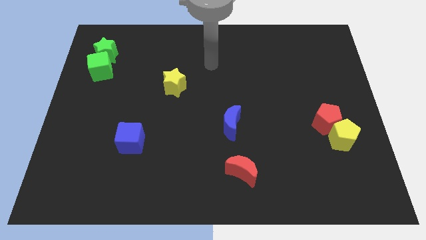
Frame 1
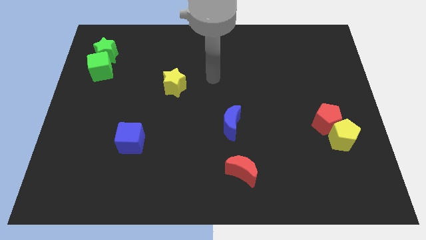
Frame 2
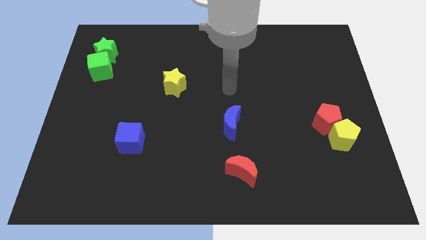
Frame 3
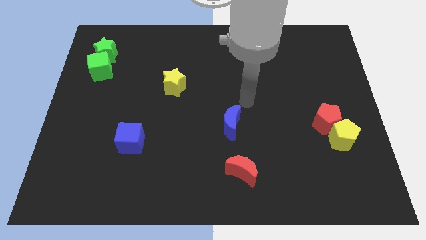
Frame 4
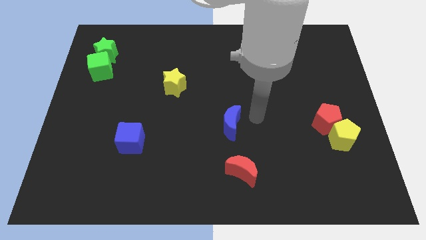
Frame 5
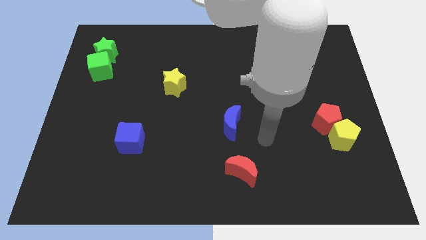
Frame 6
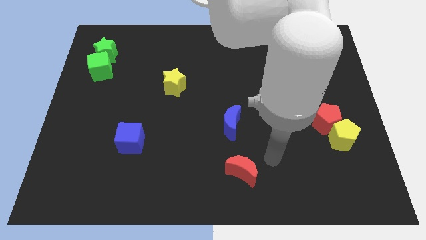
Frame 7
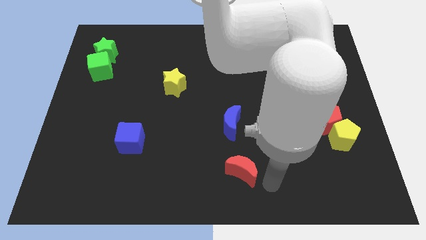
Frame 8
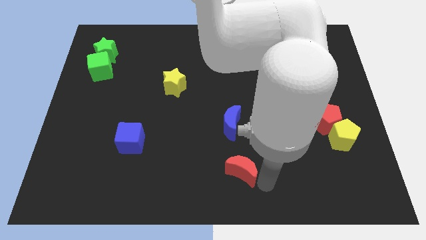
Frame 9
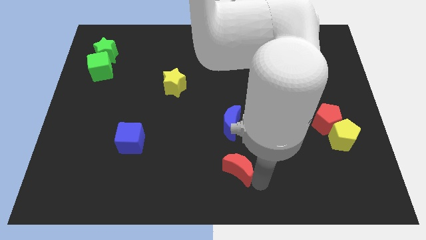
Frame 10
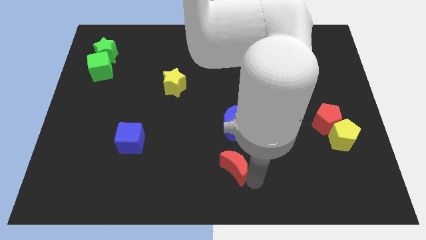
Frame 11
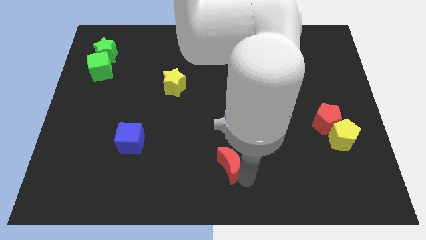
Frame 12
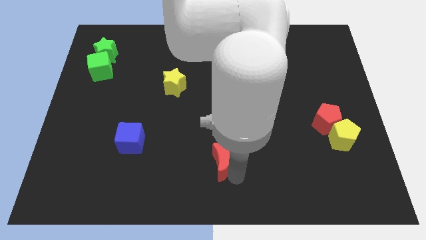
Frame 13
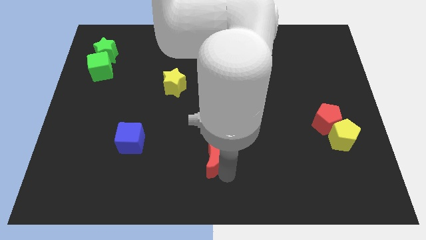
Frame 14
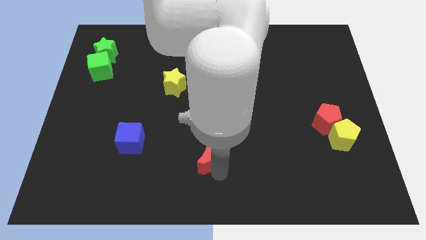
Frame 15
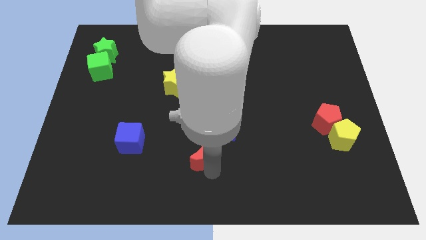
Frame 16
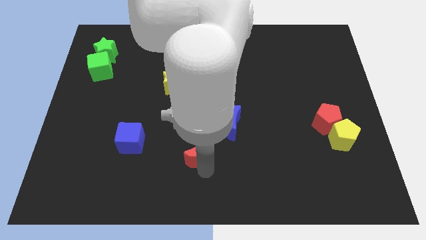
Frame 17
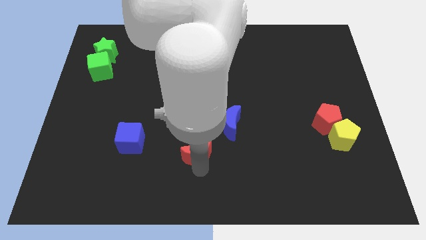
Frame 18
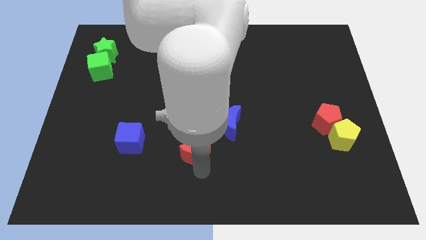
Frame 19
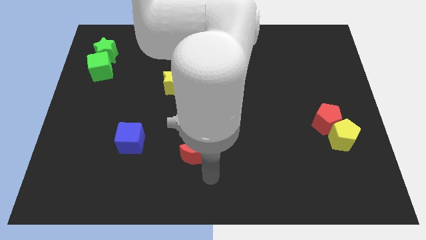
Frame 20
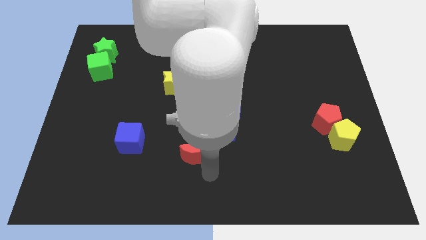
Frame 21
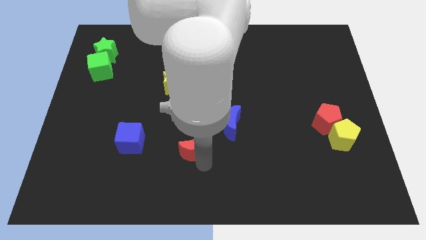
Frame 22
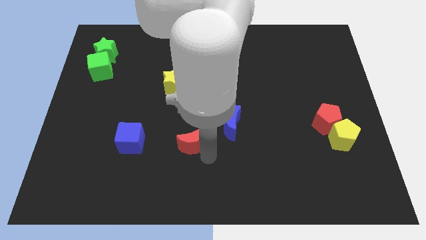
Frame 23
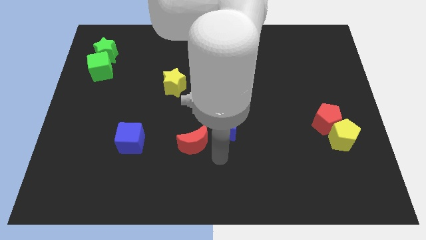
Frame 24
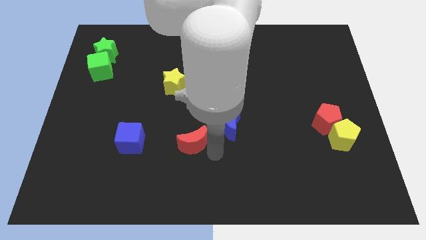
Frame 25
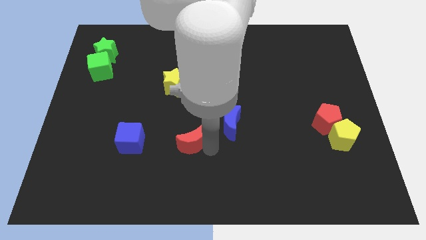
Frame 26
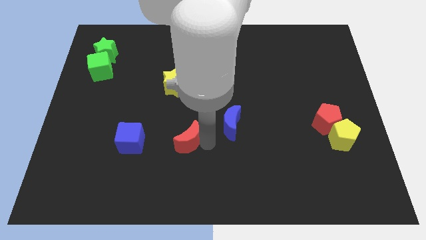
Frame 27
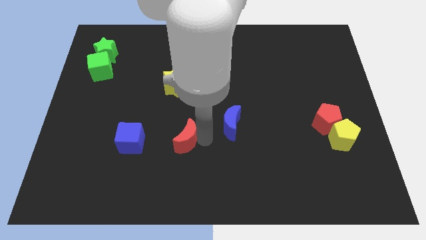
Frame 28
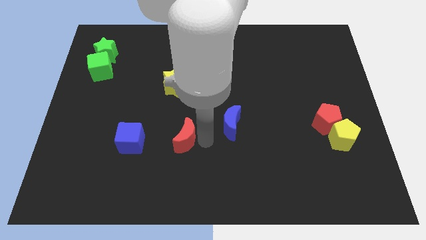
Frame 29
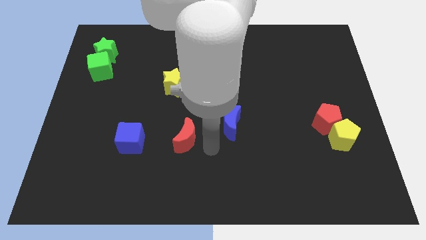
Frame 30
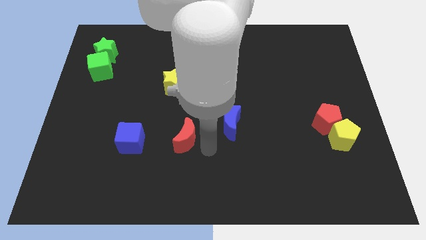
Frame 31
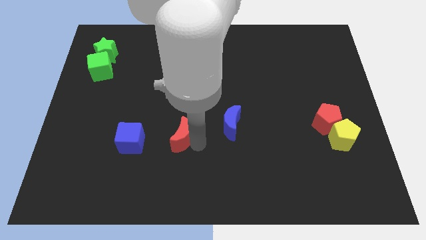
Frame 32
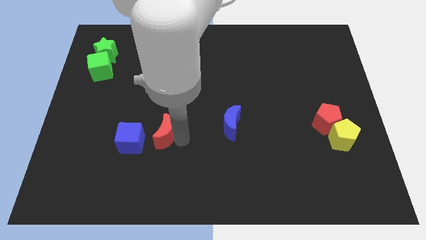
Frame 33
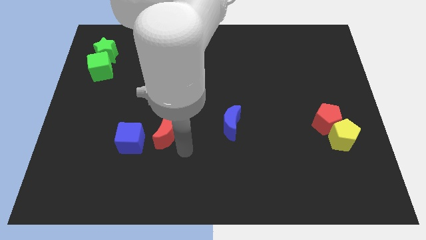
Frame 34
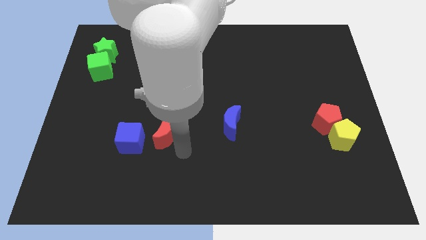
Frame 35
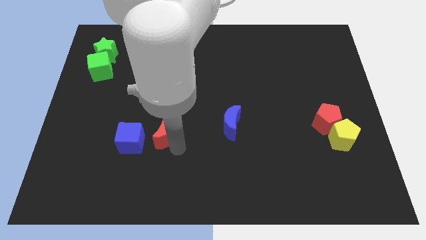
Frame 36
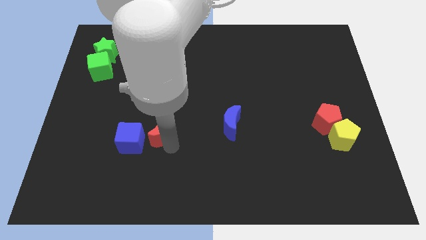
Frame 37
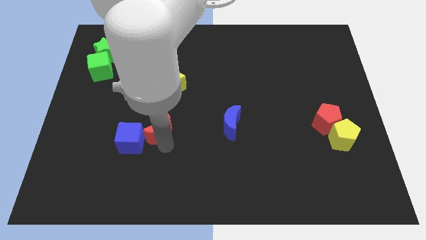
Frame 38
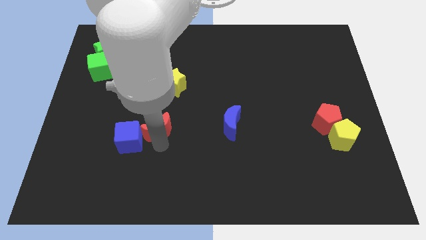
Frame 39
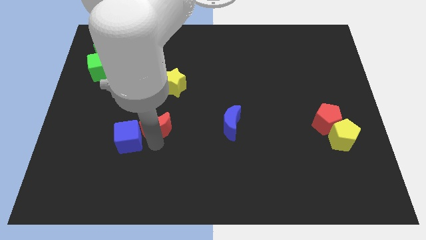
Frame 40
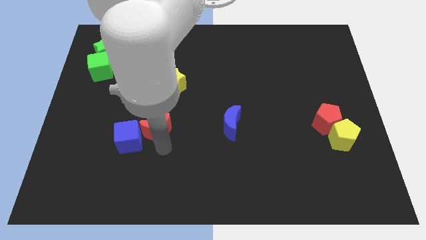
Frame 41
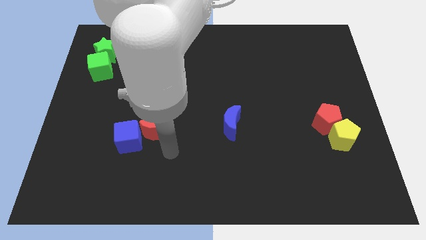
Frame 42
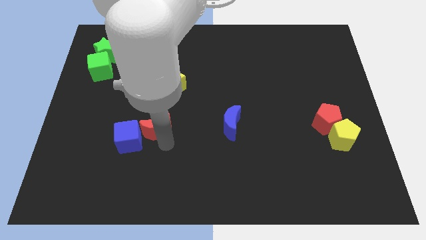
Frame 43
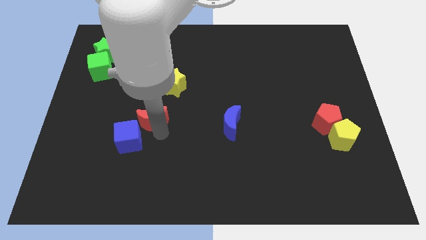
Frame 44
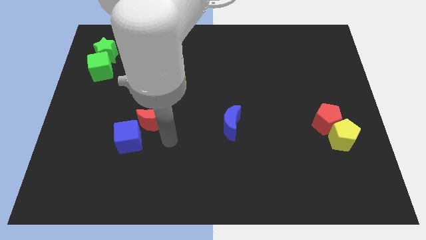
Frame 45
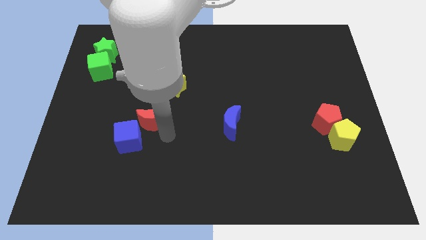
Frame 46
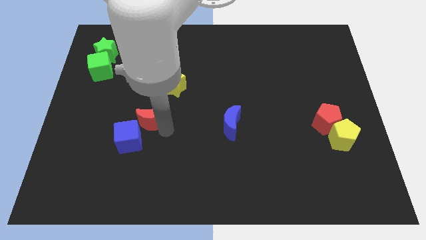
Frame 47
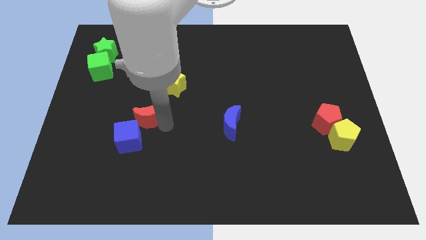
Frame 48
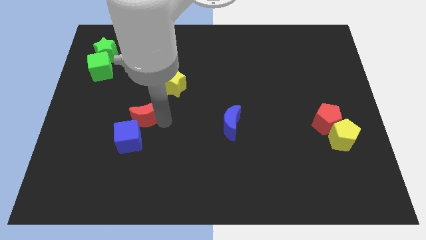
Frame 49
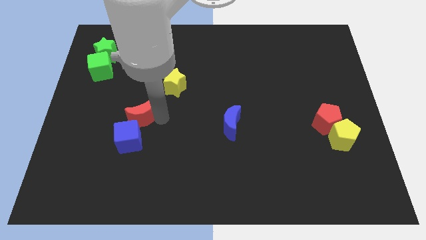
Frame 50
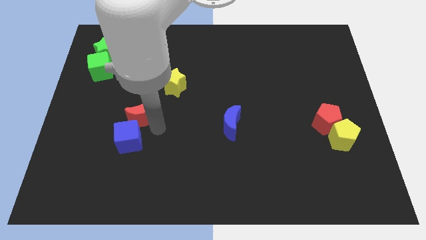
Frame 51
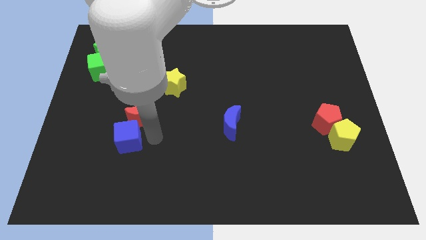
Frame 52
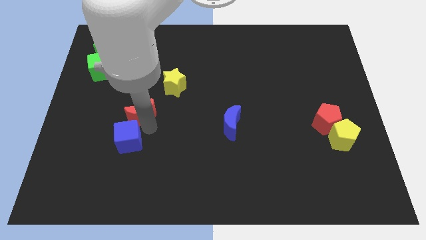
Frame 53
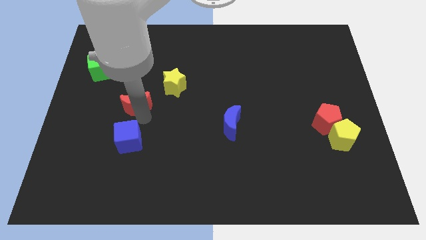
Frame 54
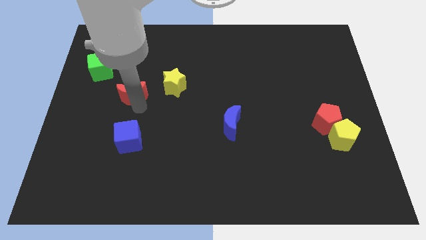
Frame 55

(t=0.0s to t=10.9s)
move the red moon to the bottom right of the green cube

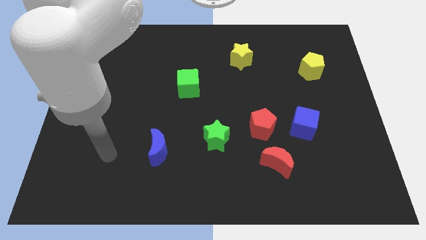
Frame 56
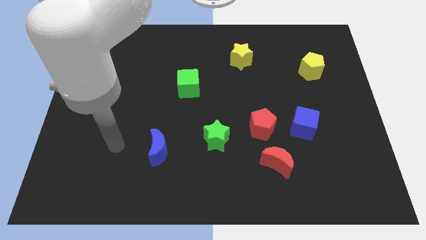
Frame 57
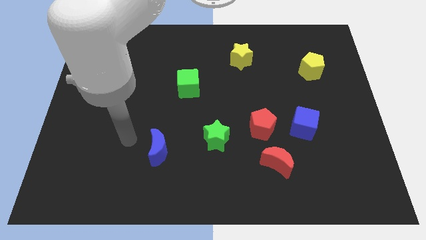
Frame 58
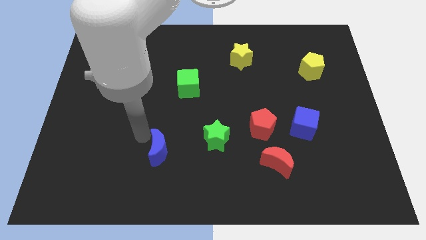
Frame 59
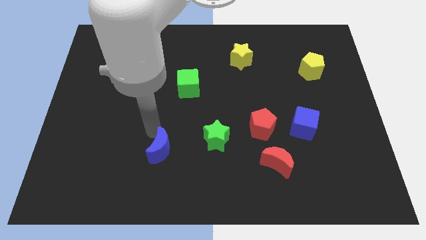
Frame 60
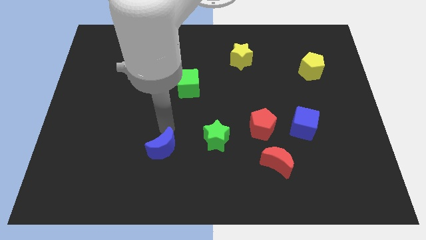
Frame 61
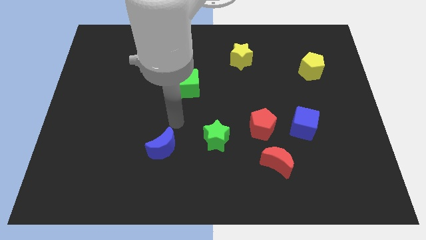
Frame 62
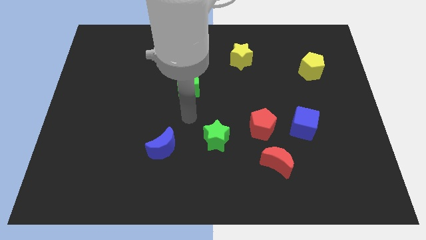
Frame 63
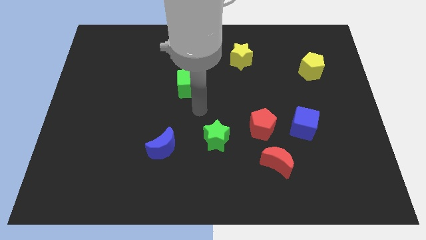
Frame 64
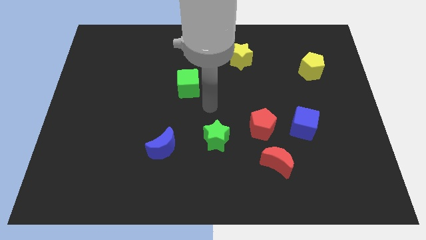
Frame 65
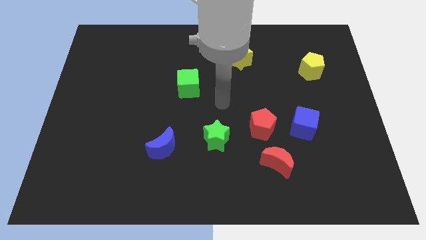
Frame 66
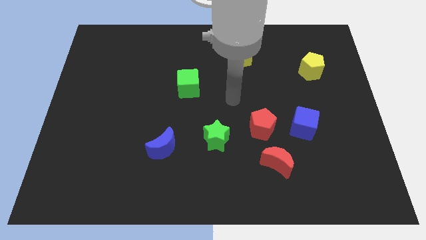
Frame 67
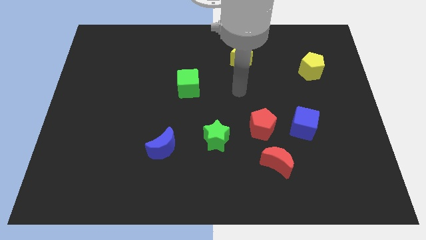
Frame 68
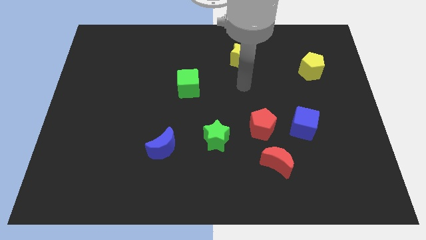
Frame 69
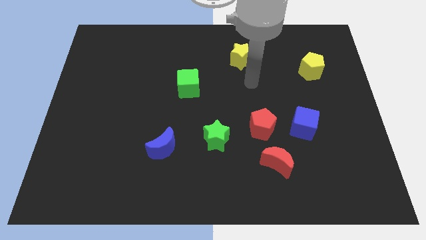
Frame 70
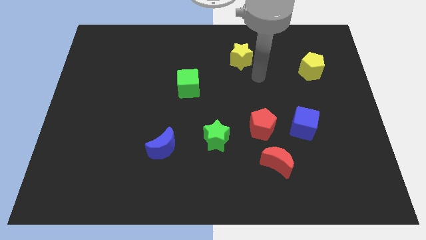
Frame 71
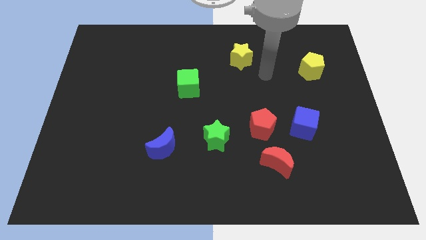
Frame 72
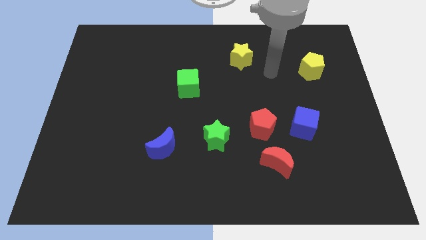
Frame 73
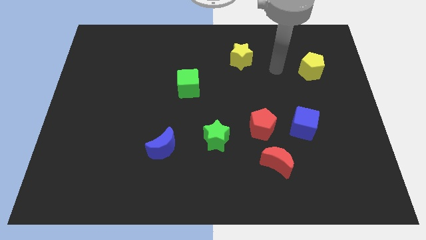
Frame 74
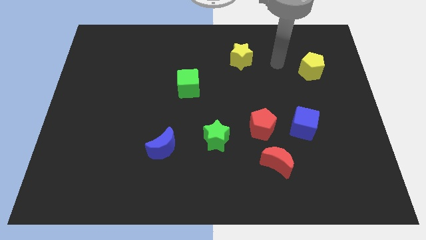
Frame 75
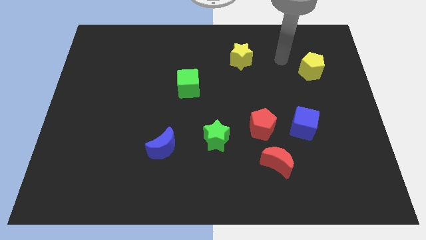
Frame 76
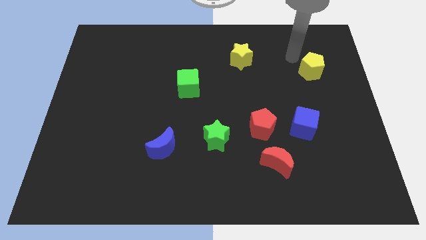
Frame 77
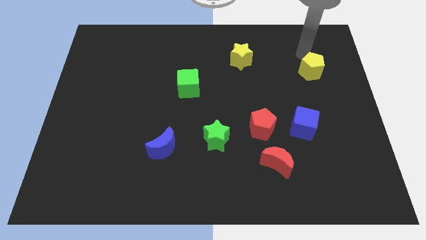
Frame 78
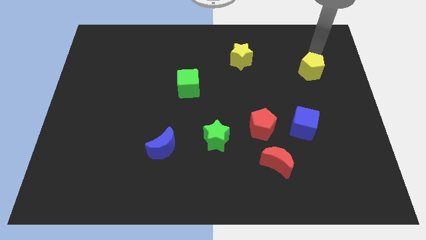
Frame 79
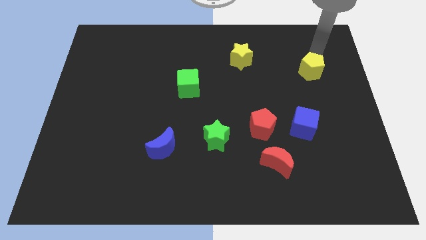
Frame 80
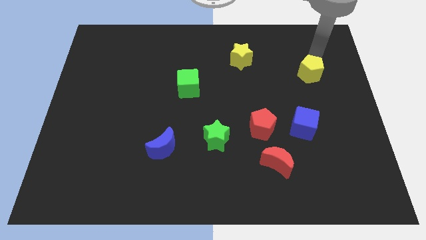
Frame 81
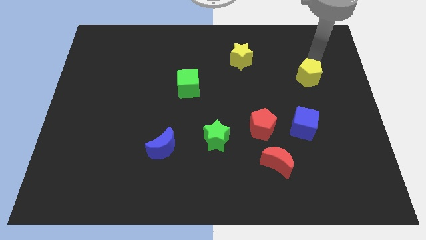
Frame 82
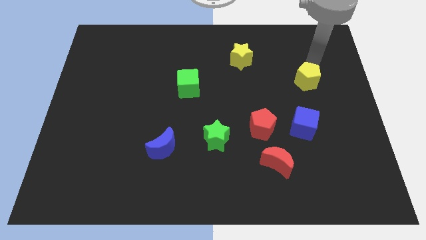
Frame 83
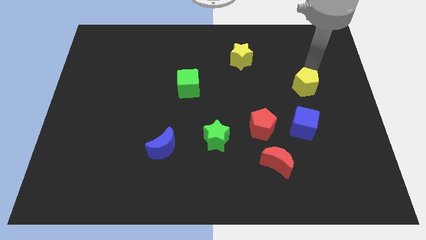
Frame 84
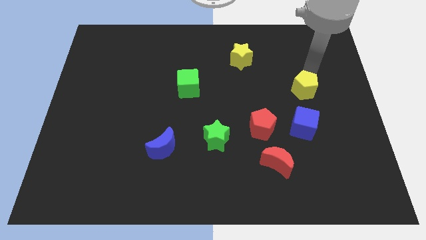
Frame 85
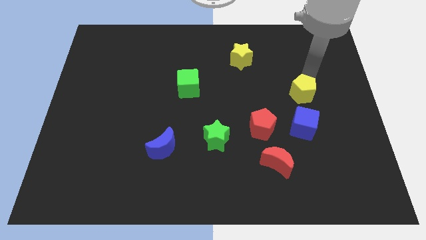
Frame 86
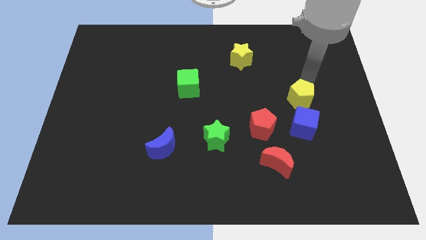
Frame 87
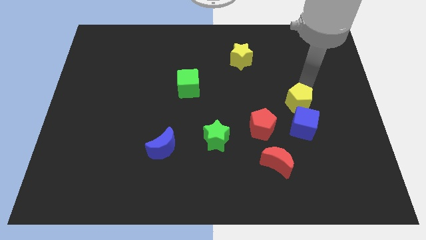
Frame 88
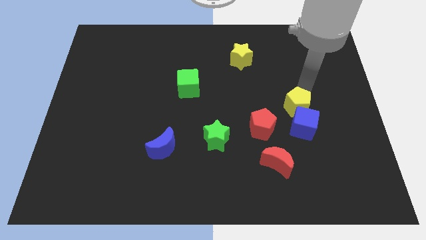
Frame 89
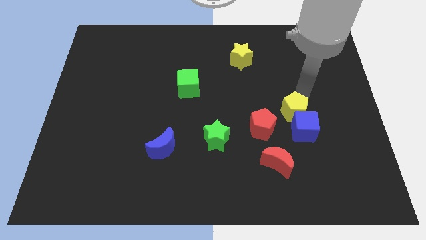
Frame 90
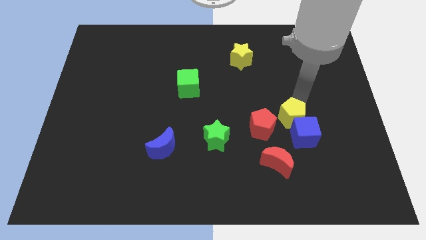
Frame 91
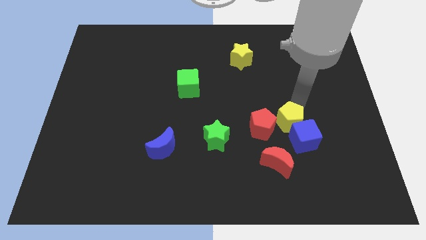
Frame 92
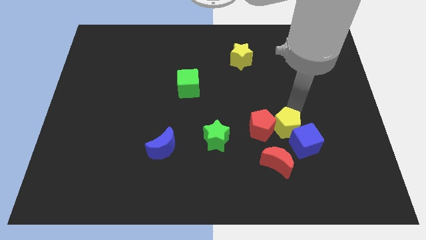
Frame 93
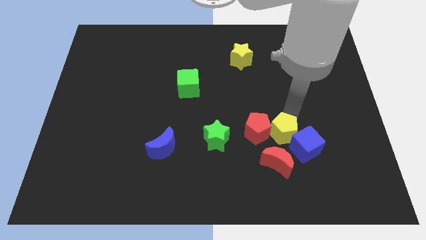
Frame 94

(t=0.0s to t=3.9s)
slide the yellow pentagon right of the green star
